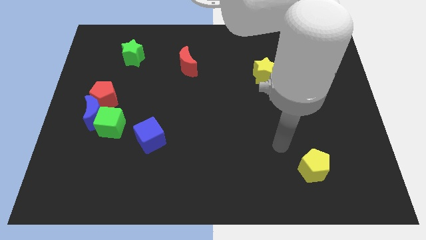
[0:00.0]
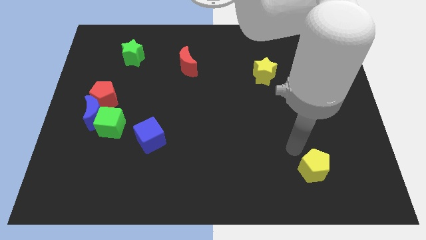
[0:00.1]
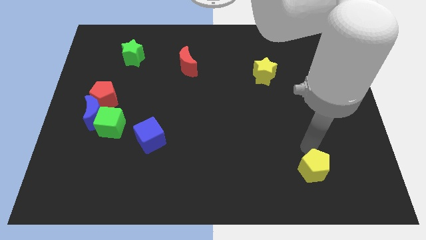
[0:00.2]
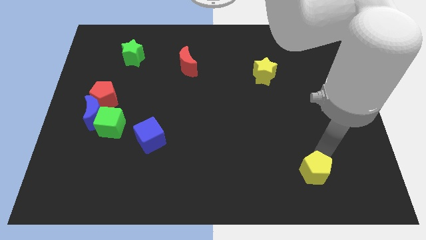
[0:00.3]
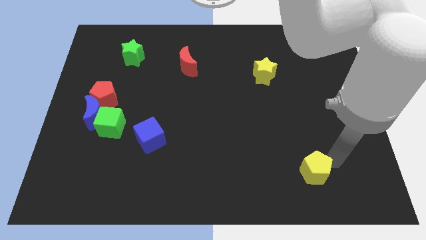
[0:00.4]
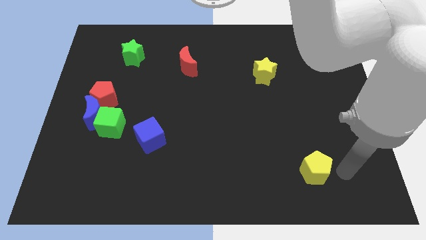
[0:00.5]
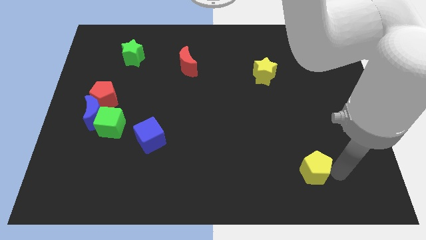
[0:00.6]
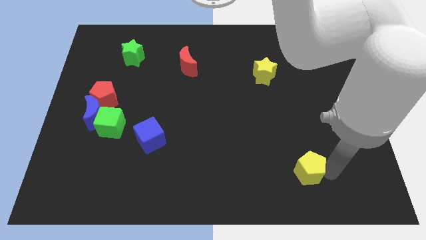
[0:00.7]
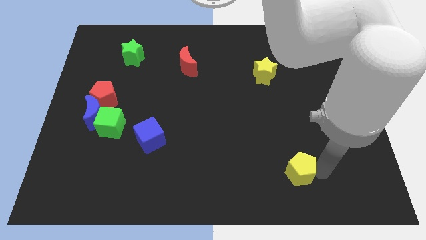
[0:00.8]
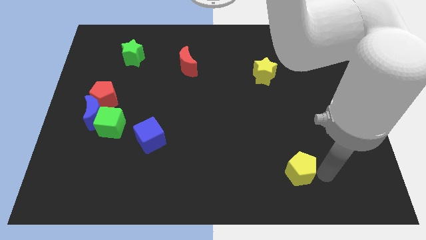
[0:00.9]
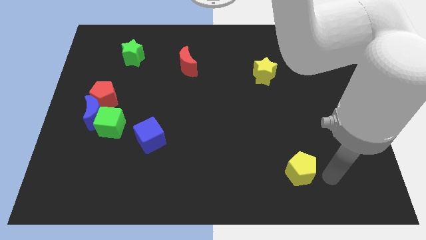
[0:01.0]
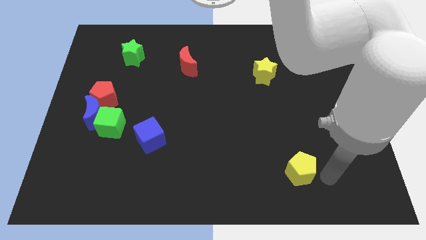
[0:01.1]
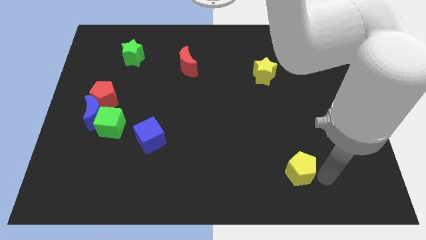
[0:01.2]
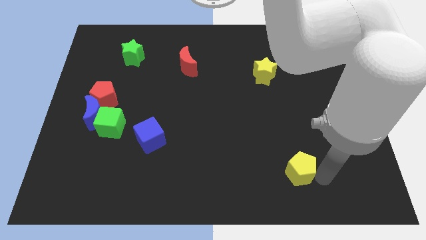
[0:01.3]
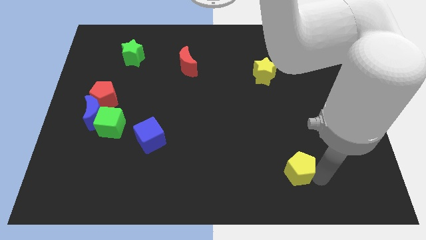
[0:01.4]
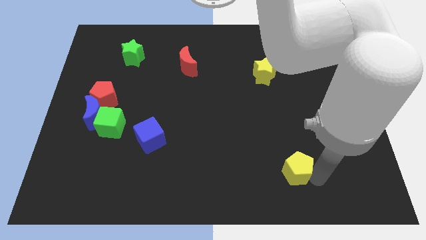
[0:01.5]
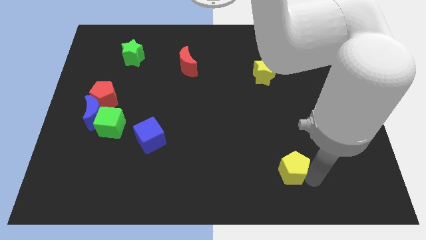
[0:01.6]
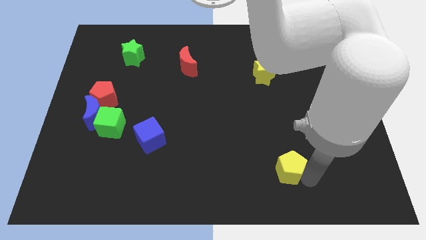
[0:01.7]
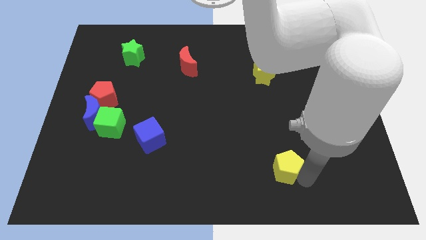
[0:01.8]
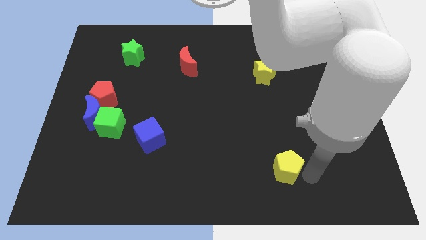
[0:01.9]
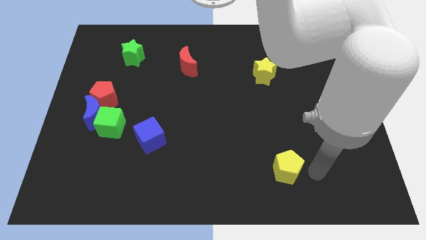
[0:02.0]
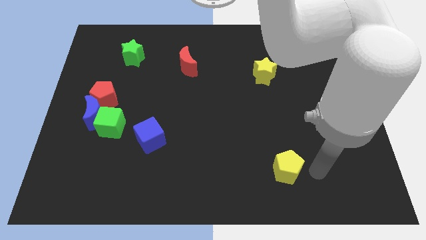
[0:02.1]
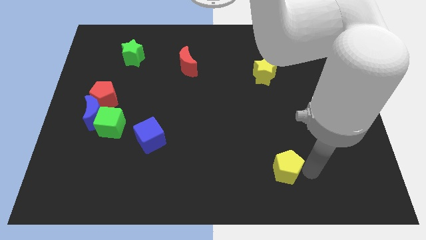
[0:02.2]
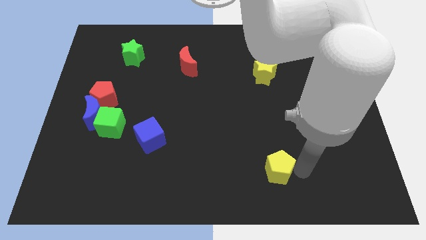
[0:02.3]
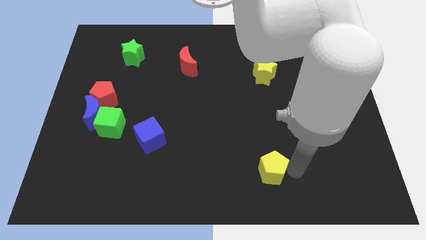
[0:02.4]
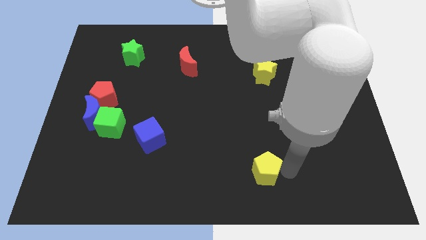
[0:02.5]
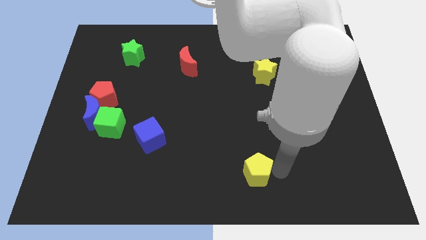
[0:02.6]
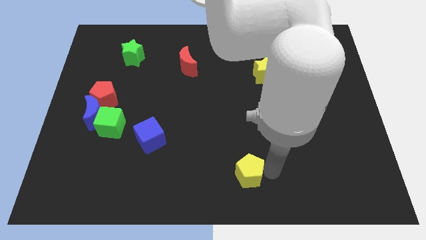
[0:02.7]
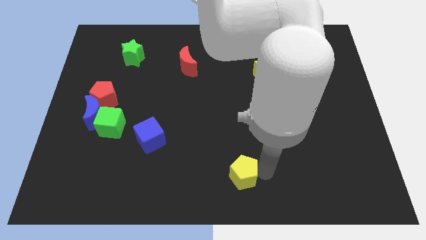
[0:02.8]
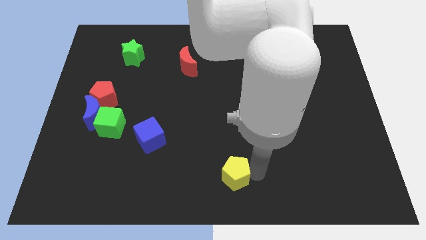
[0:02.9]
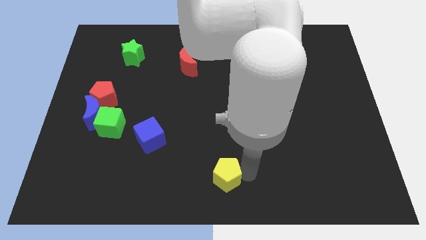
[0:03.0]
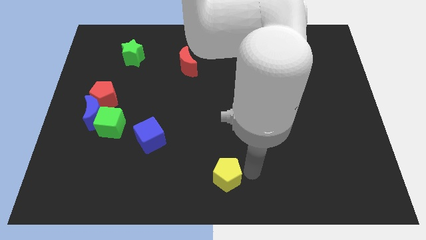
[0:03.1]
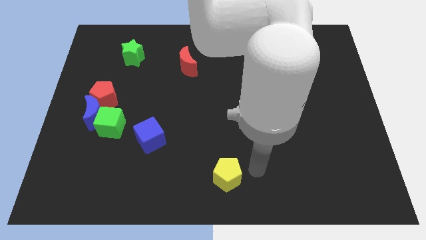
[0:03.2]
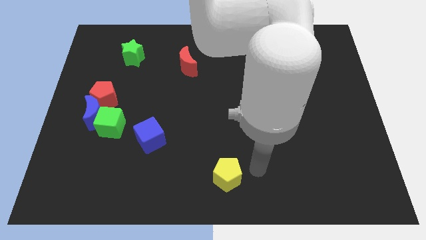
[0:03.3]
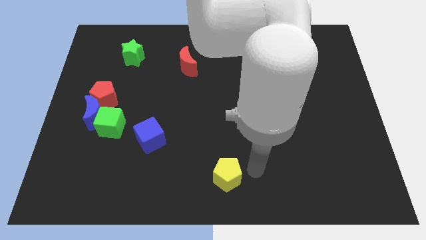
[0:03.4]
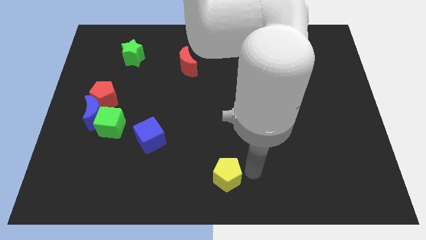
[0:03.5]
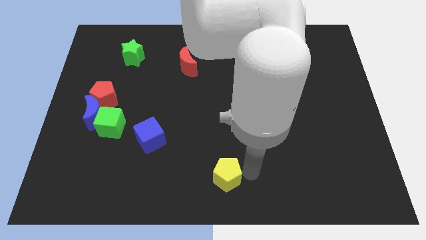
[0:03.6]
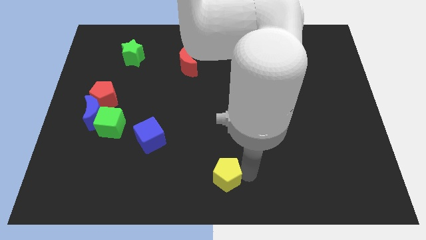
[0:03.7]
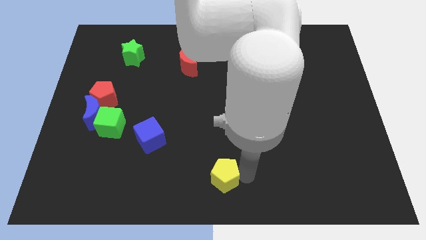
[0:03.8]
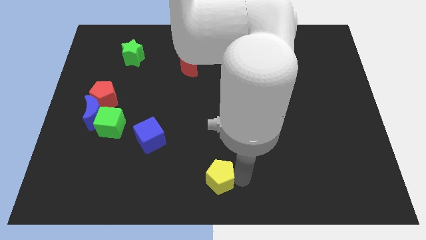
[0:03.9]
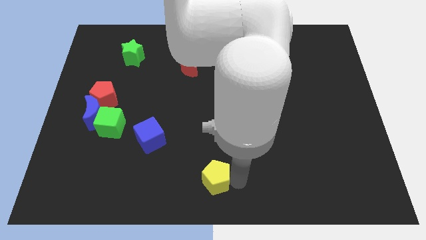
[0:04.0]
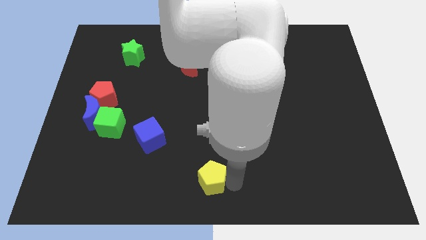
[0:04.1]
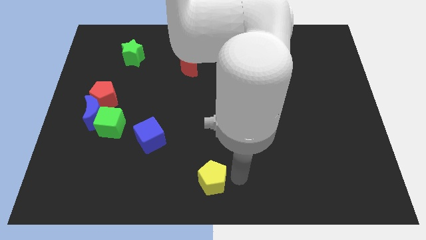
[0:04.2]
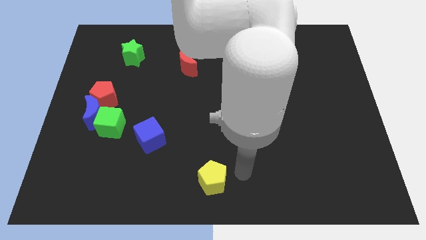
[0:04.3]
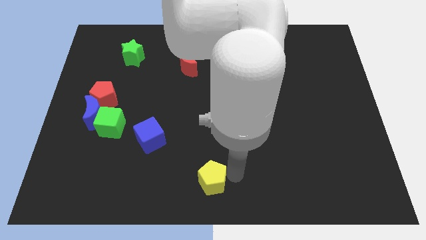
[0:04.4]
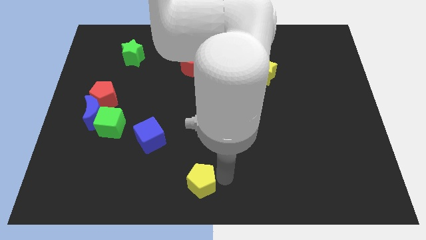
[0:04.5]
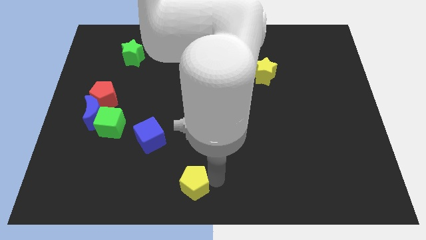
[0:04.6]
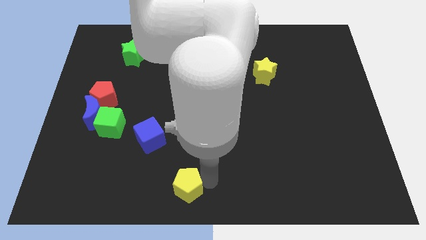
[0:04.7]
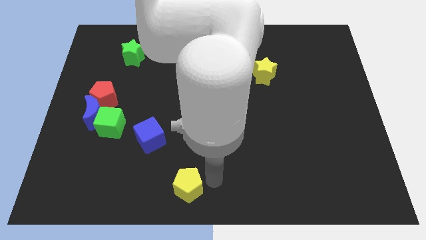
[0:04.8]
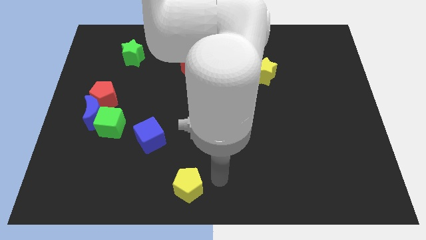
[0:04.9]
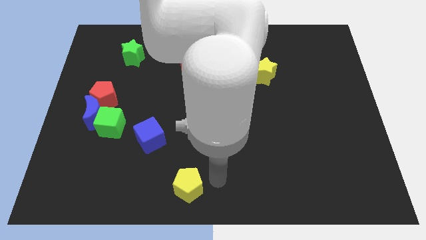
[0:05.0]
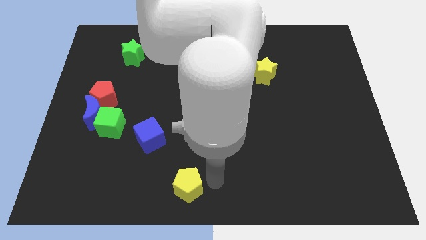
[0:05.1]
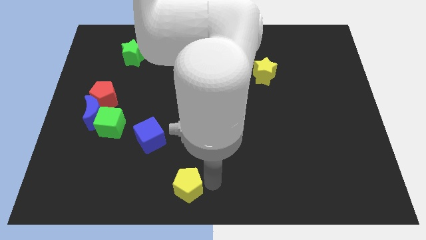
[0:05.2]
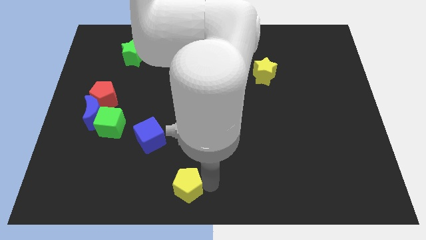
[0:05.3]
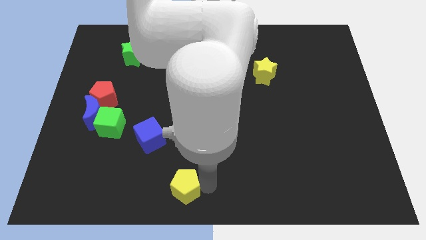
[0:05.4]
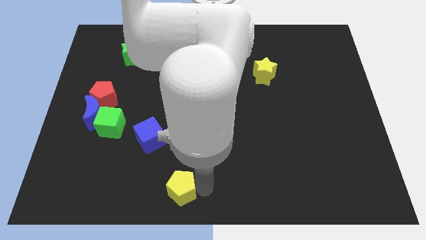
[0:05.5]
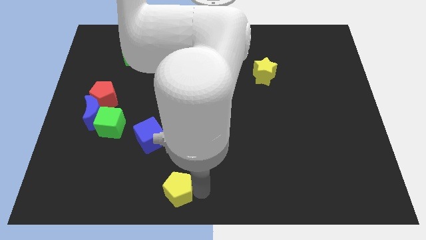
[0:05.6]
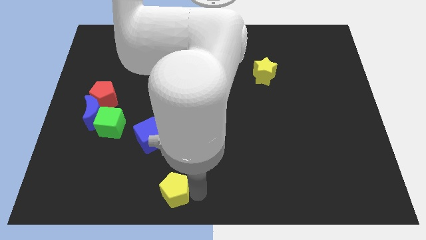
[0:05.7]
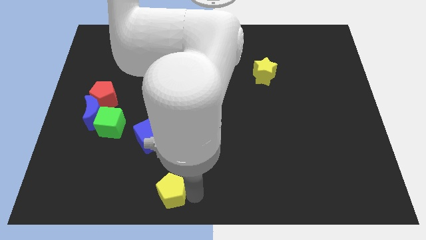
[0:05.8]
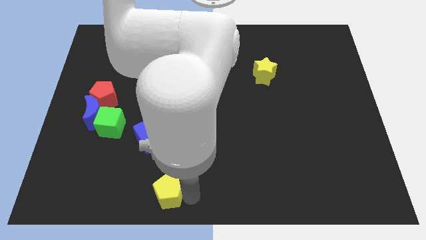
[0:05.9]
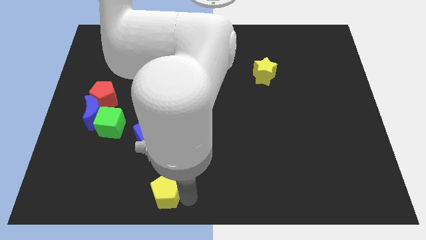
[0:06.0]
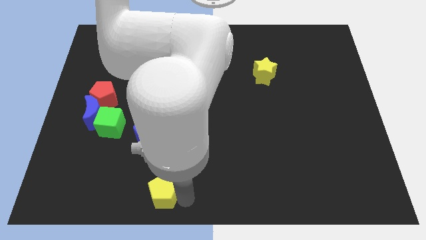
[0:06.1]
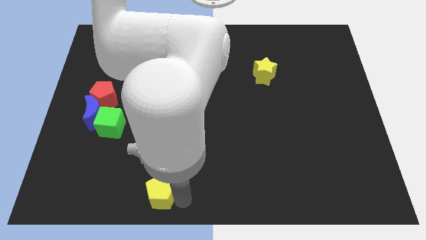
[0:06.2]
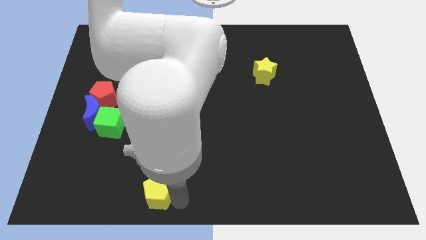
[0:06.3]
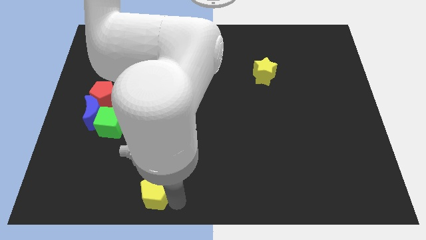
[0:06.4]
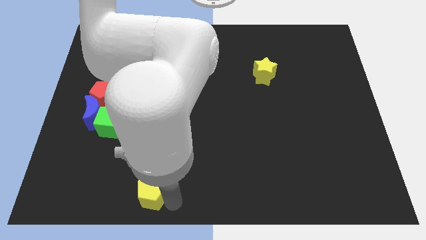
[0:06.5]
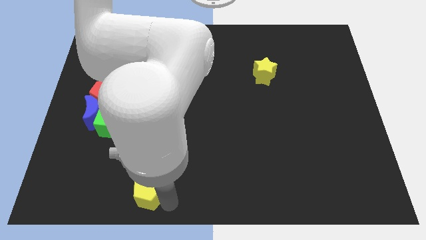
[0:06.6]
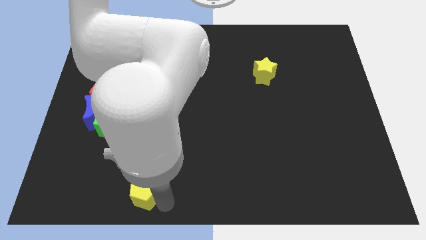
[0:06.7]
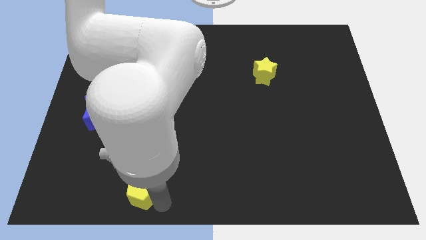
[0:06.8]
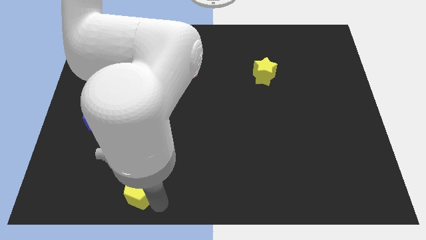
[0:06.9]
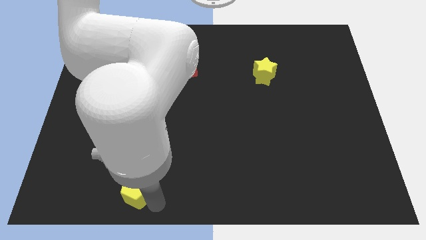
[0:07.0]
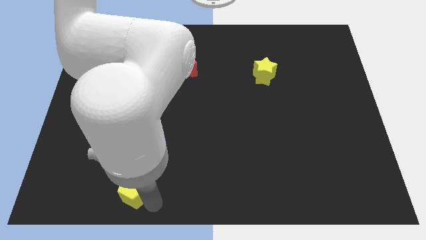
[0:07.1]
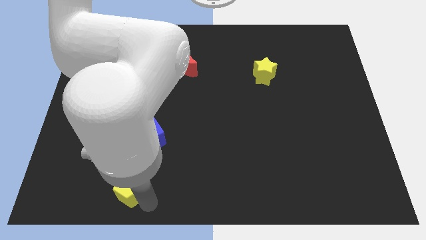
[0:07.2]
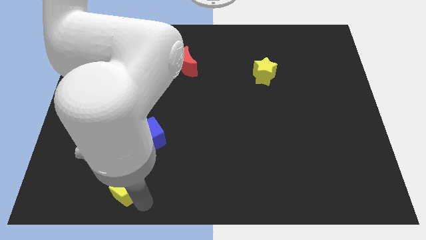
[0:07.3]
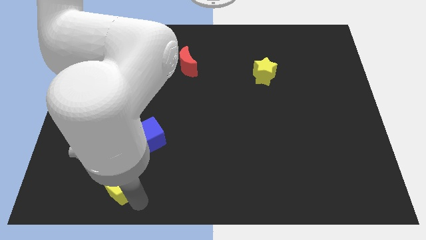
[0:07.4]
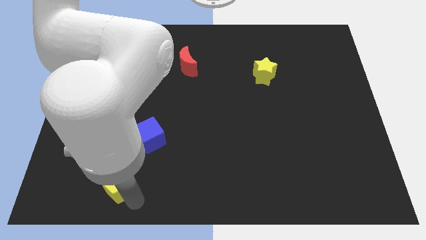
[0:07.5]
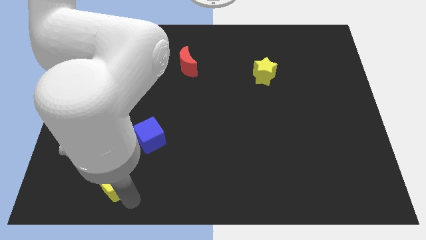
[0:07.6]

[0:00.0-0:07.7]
move the yellow pentagon below the green cube
